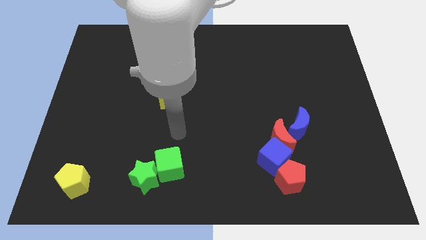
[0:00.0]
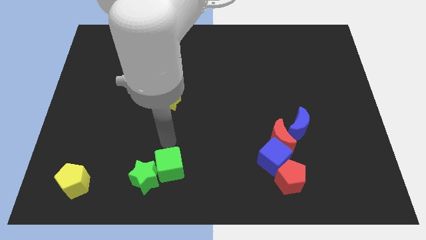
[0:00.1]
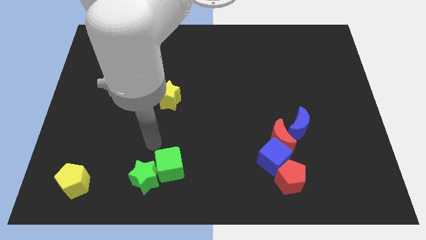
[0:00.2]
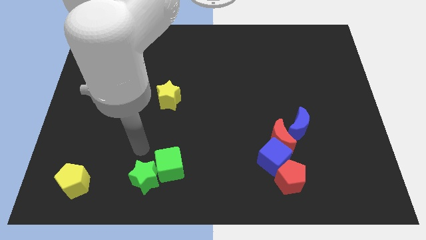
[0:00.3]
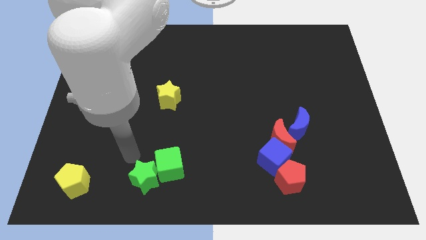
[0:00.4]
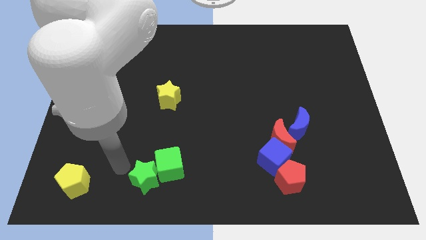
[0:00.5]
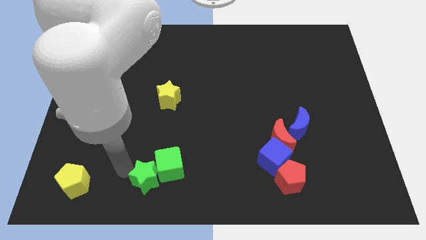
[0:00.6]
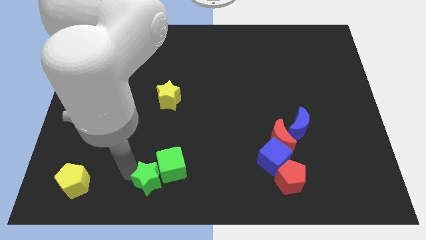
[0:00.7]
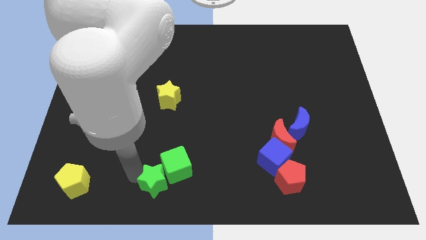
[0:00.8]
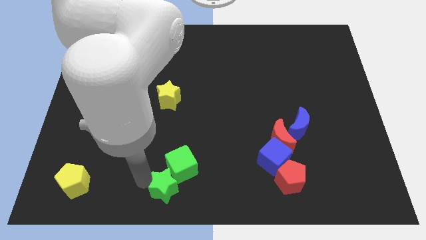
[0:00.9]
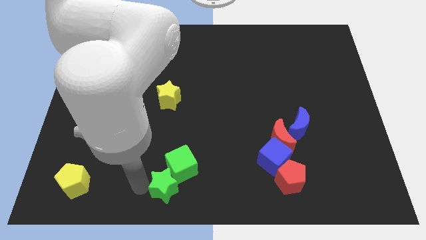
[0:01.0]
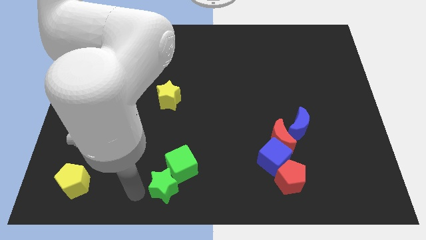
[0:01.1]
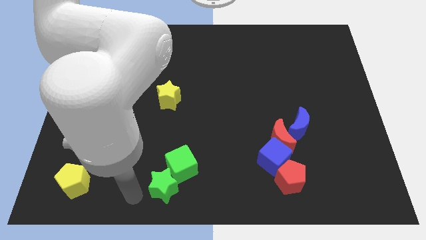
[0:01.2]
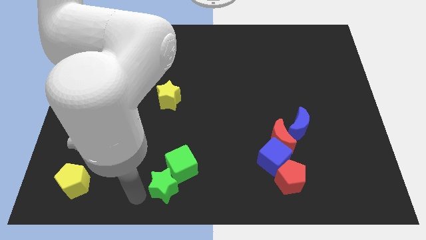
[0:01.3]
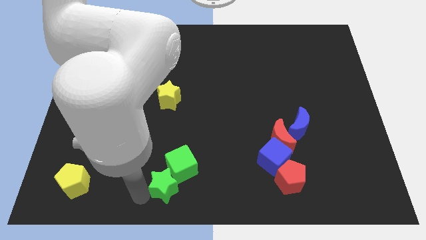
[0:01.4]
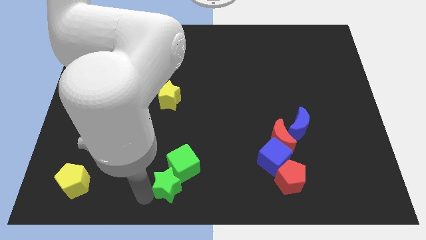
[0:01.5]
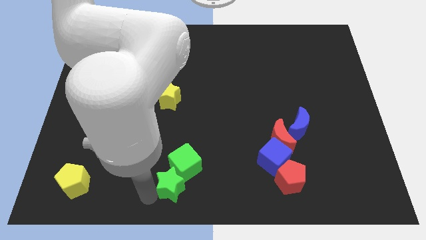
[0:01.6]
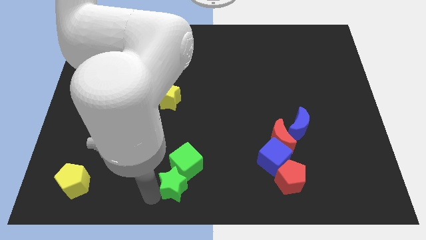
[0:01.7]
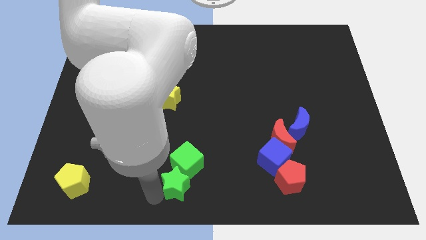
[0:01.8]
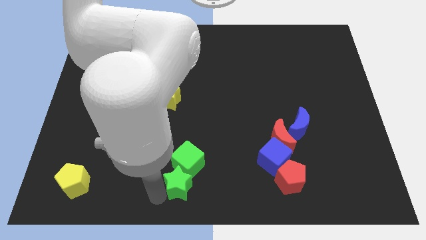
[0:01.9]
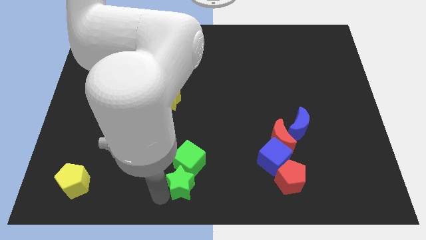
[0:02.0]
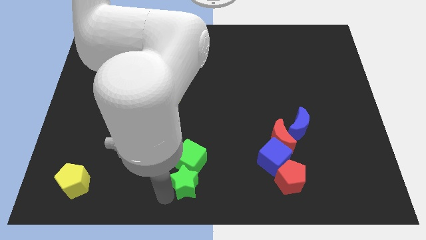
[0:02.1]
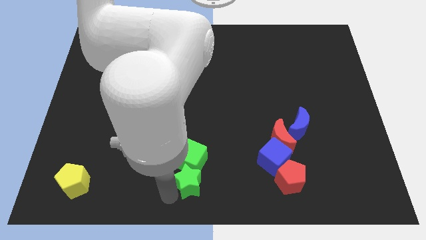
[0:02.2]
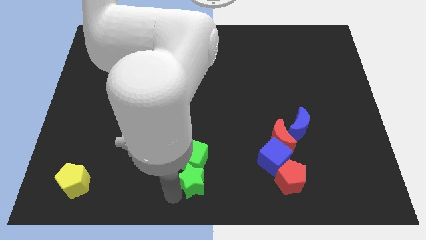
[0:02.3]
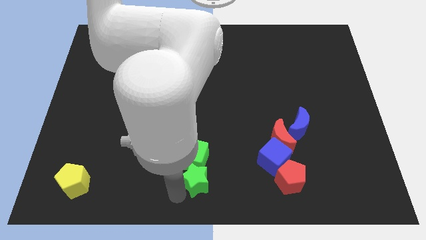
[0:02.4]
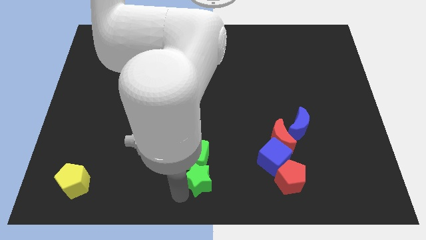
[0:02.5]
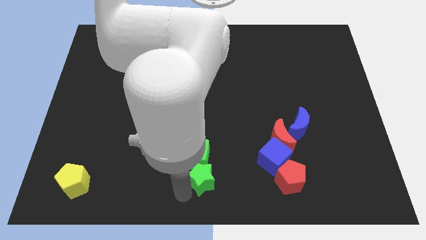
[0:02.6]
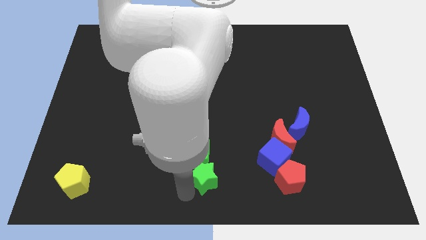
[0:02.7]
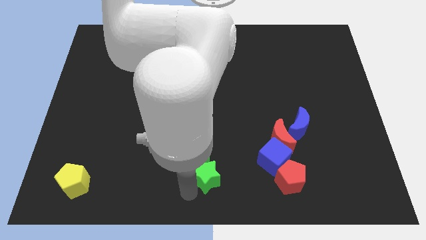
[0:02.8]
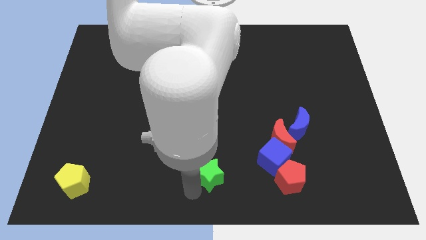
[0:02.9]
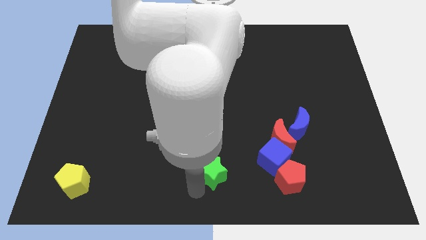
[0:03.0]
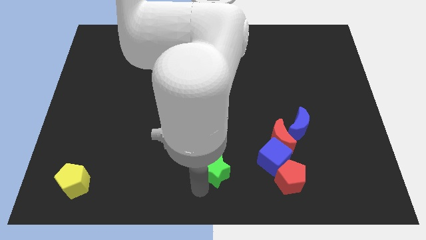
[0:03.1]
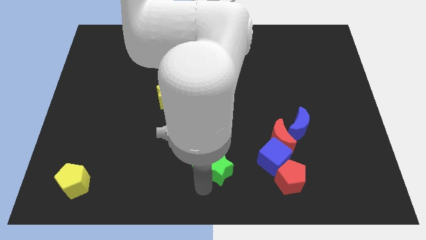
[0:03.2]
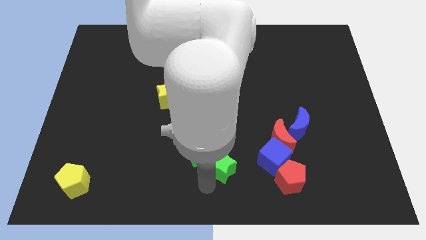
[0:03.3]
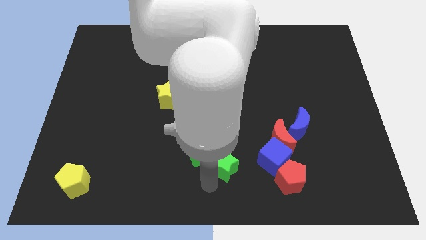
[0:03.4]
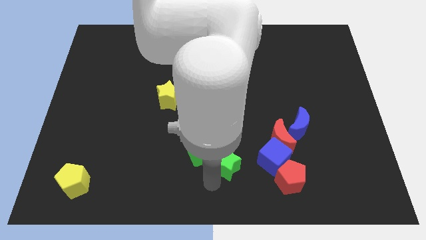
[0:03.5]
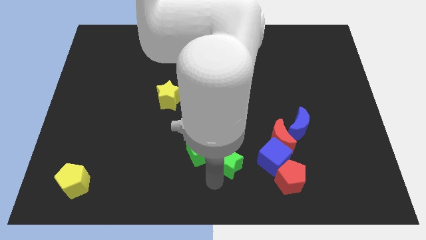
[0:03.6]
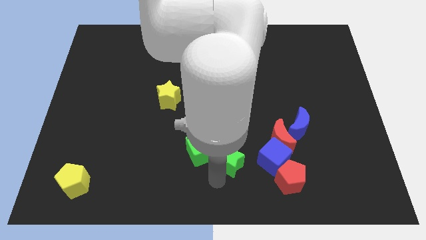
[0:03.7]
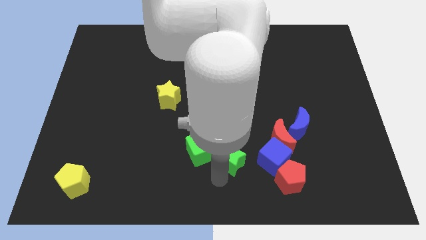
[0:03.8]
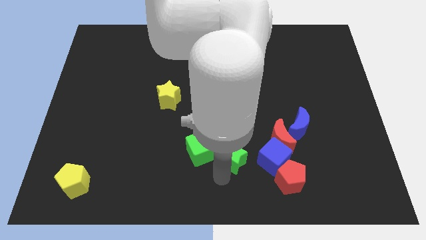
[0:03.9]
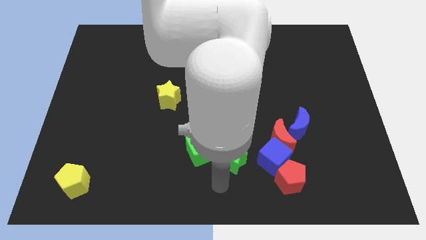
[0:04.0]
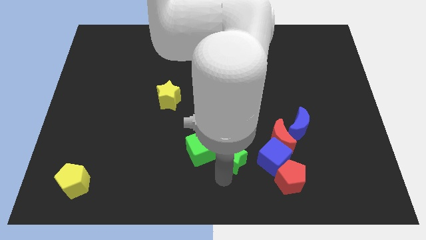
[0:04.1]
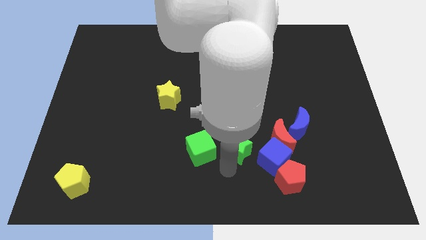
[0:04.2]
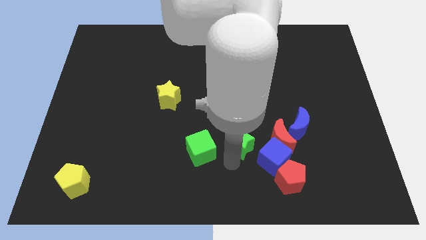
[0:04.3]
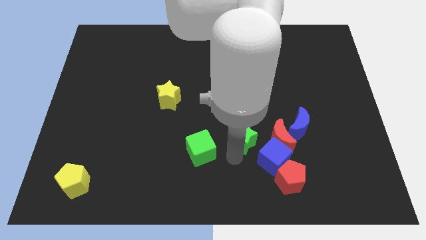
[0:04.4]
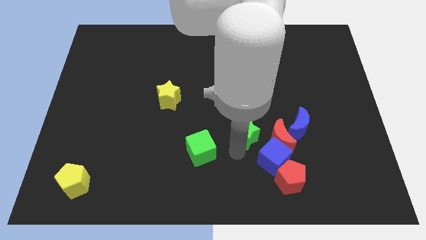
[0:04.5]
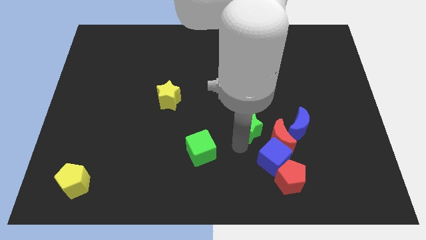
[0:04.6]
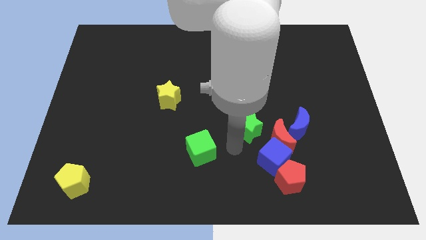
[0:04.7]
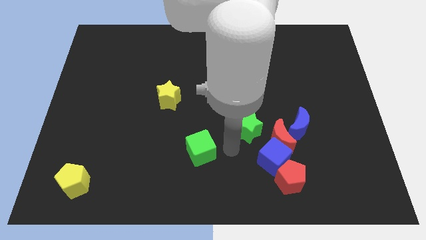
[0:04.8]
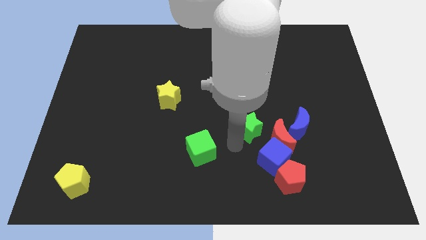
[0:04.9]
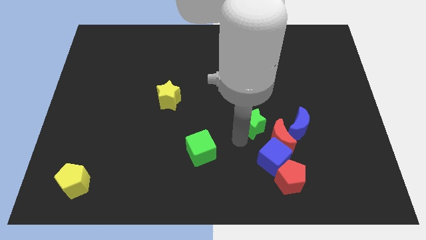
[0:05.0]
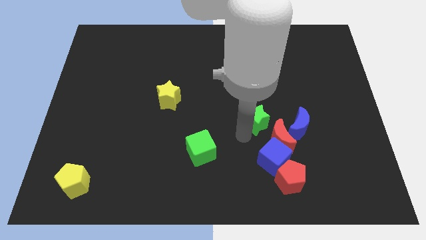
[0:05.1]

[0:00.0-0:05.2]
move the green star above the red moon

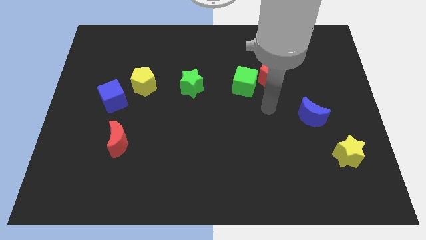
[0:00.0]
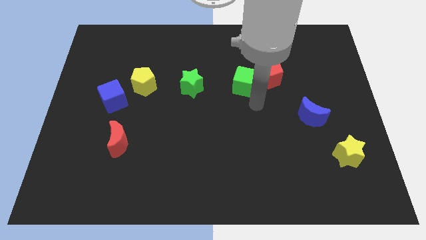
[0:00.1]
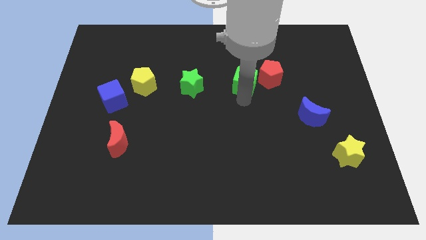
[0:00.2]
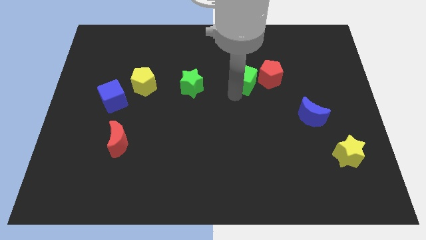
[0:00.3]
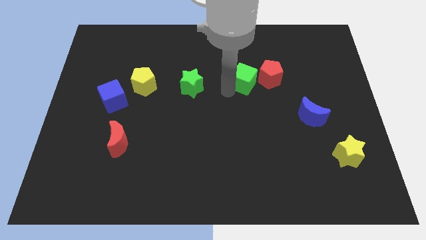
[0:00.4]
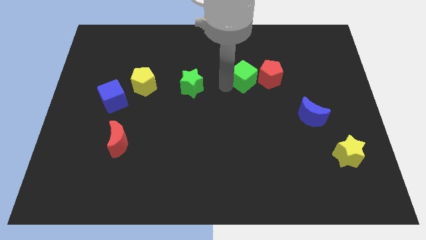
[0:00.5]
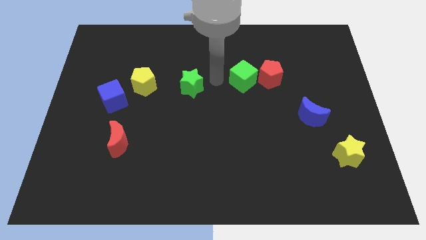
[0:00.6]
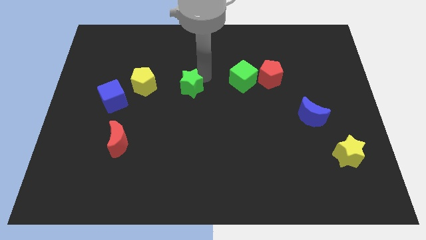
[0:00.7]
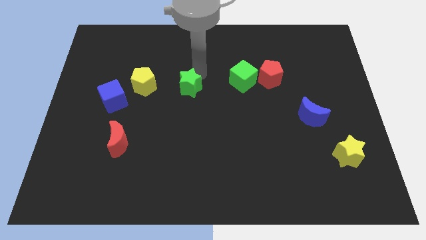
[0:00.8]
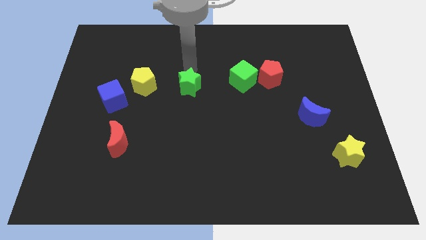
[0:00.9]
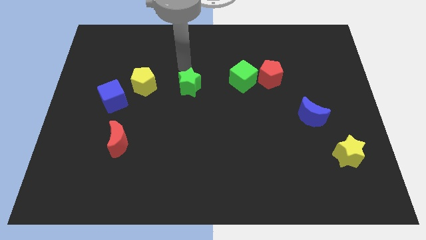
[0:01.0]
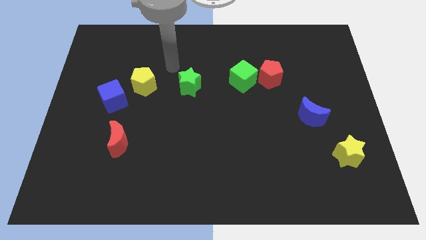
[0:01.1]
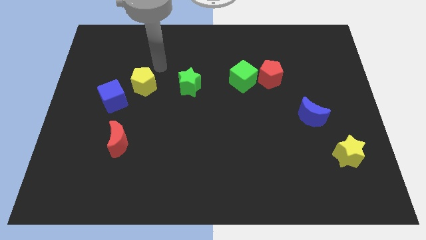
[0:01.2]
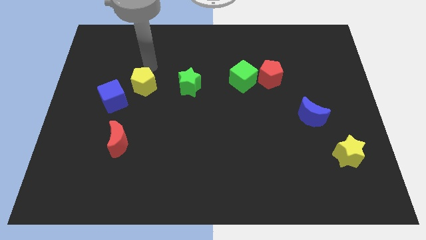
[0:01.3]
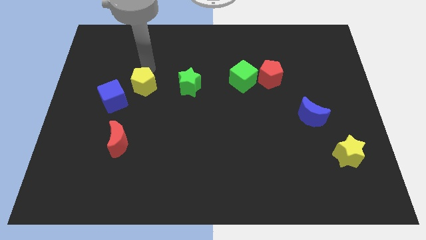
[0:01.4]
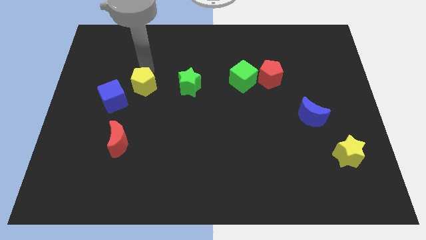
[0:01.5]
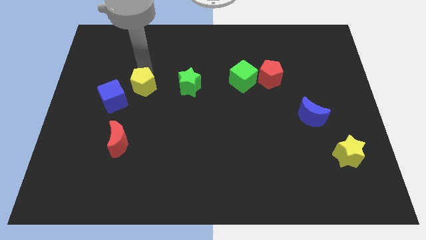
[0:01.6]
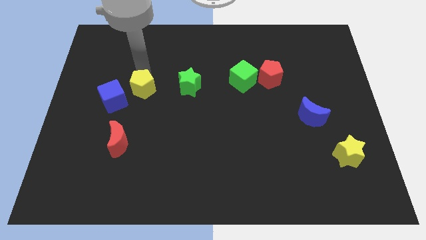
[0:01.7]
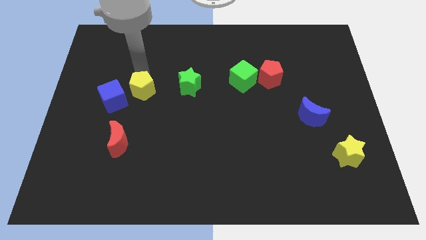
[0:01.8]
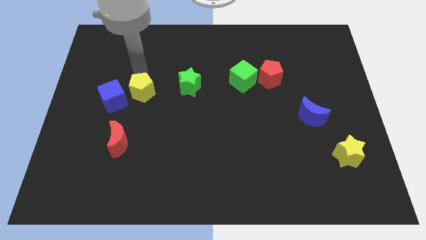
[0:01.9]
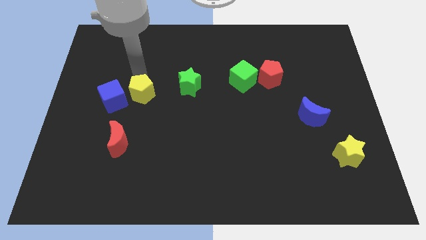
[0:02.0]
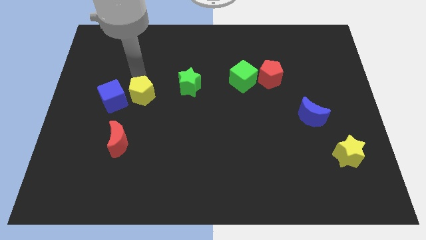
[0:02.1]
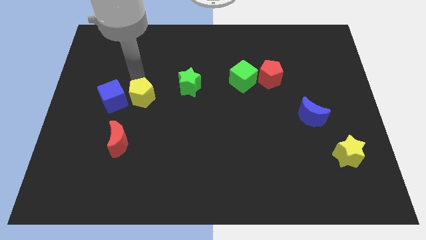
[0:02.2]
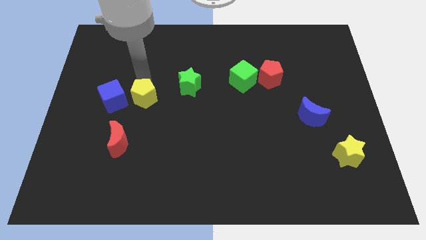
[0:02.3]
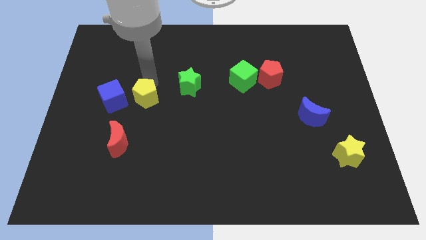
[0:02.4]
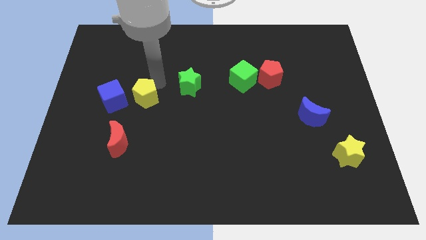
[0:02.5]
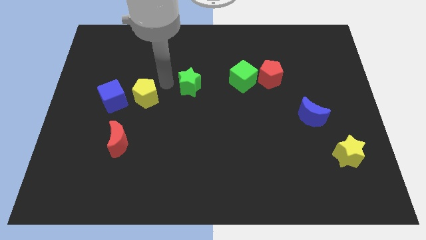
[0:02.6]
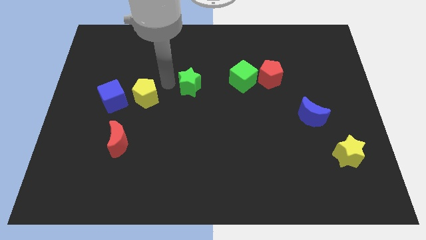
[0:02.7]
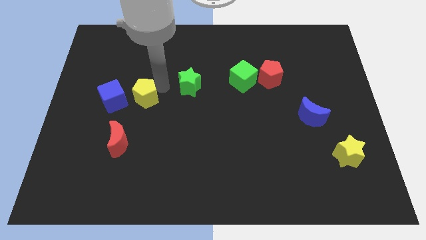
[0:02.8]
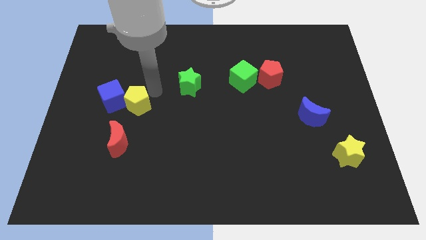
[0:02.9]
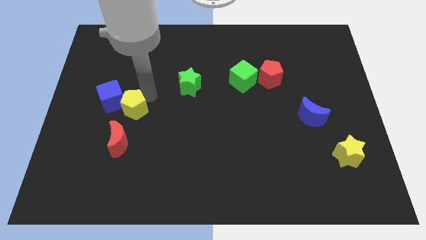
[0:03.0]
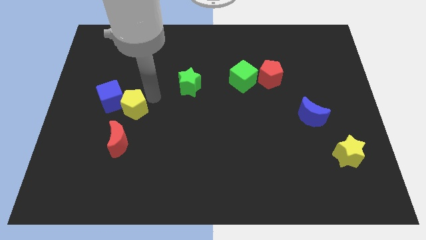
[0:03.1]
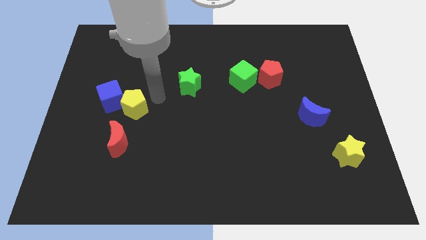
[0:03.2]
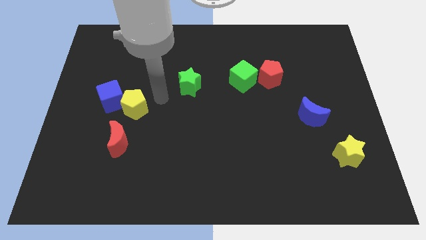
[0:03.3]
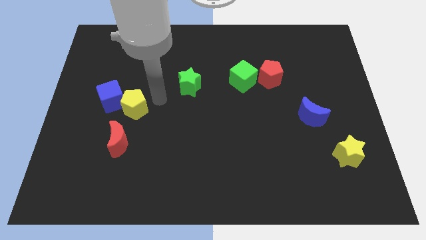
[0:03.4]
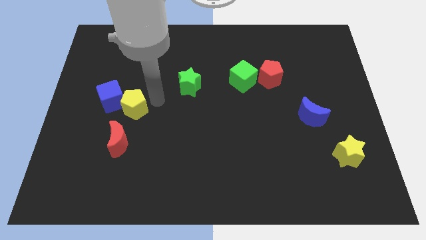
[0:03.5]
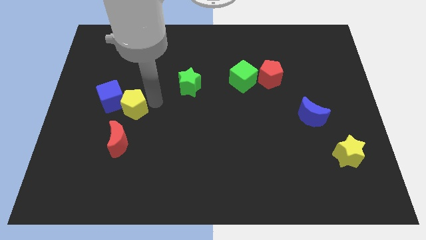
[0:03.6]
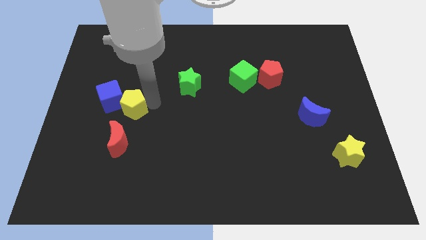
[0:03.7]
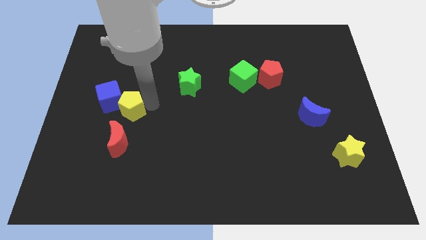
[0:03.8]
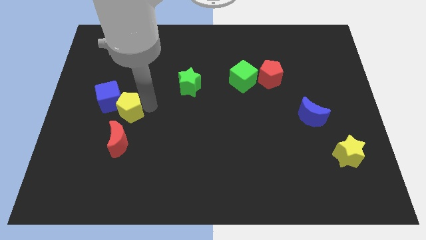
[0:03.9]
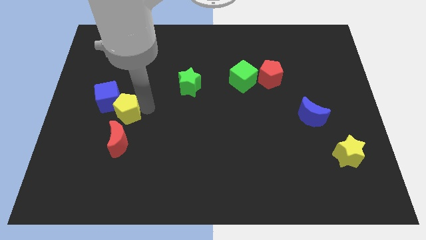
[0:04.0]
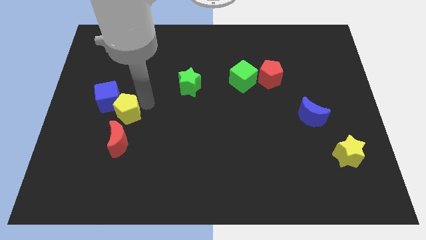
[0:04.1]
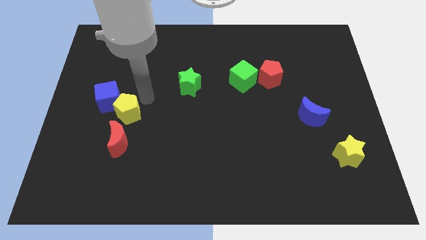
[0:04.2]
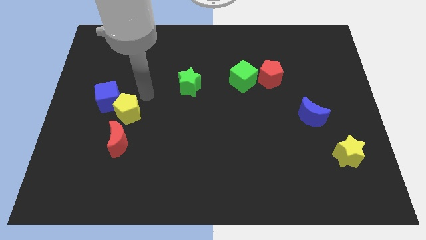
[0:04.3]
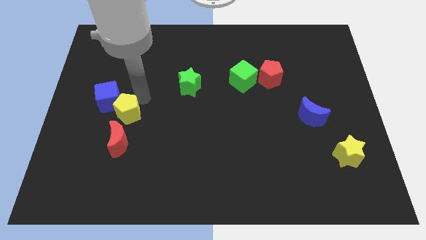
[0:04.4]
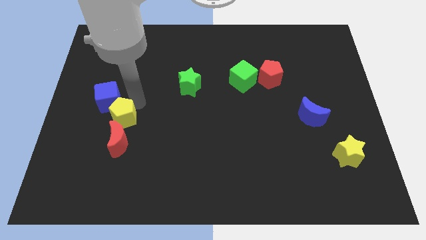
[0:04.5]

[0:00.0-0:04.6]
slide the yellow pentagon to the bottom of the blue cube
